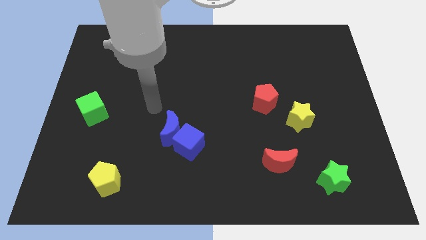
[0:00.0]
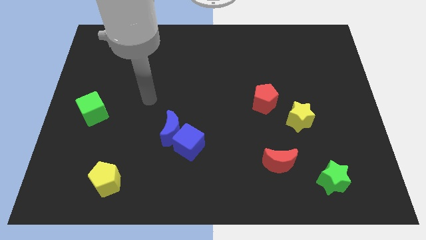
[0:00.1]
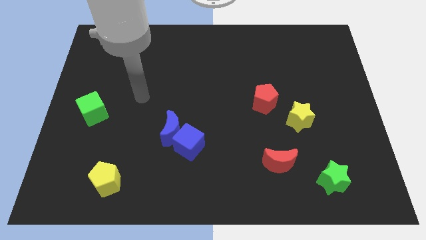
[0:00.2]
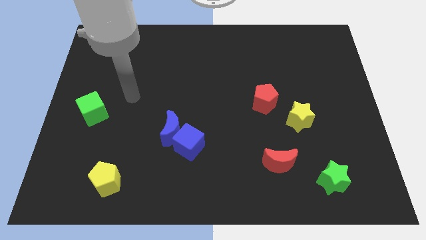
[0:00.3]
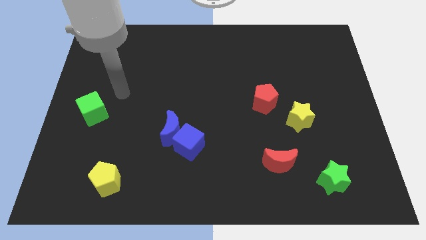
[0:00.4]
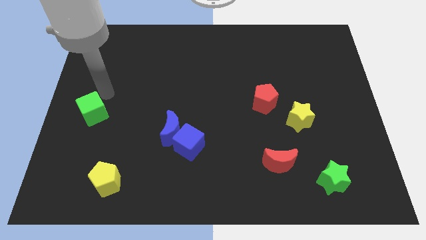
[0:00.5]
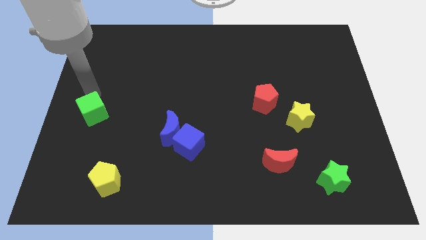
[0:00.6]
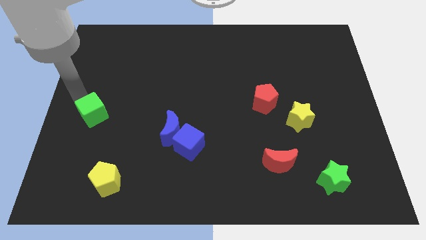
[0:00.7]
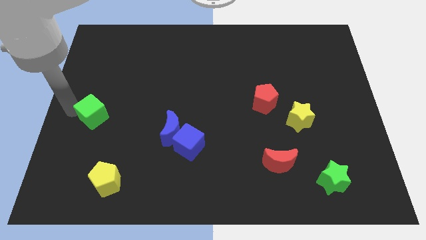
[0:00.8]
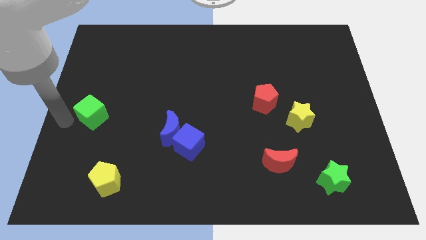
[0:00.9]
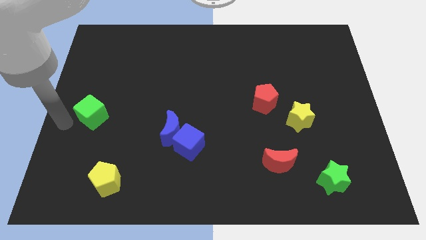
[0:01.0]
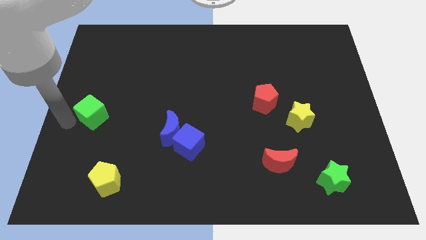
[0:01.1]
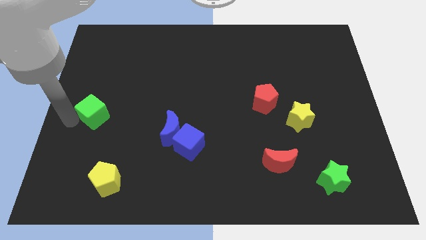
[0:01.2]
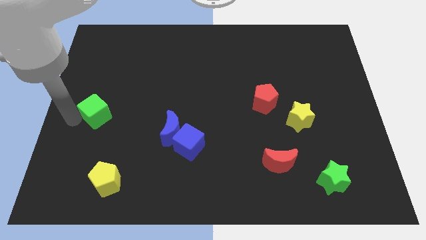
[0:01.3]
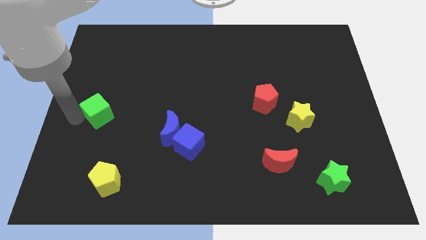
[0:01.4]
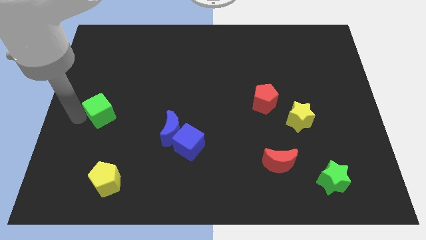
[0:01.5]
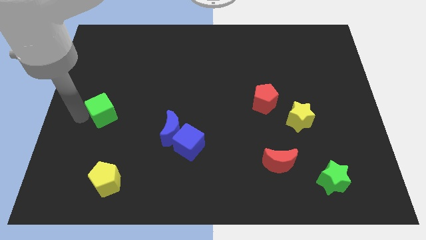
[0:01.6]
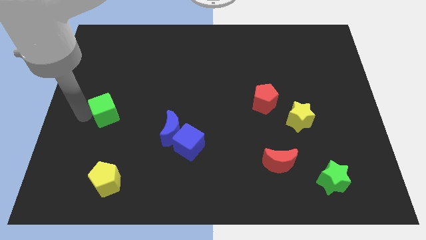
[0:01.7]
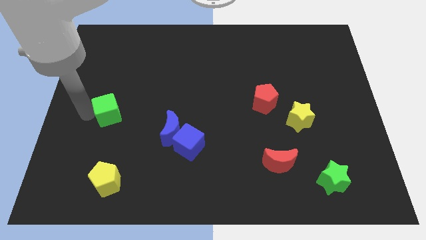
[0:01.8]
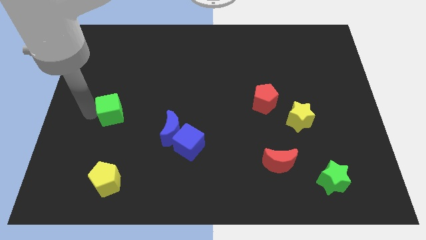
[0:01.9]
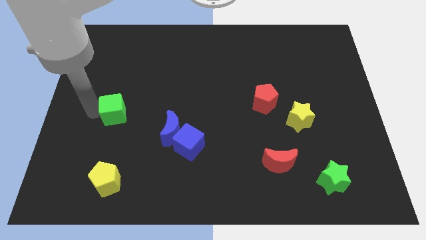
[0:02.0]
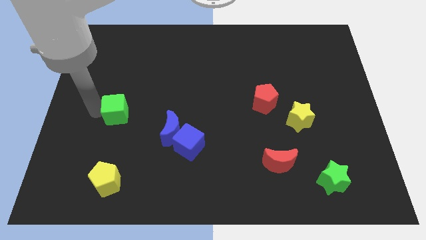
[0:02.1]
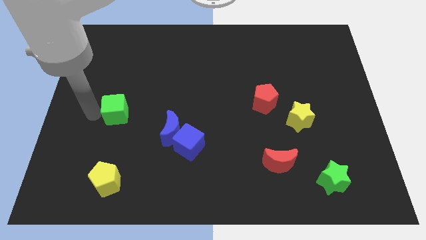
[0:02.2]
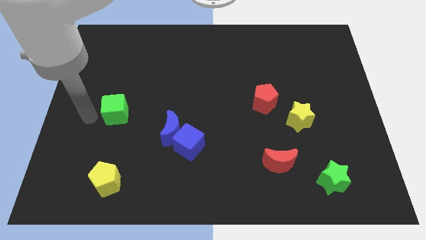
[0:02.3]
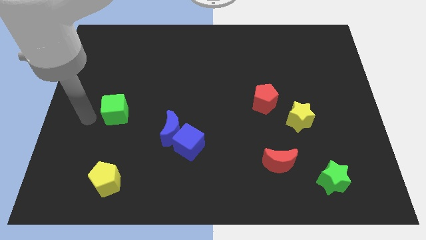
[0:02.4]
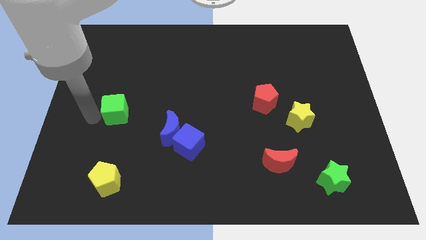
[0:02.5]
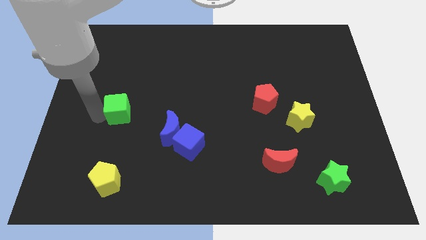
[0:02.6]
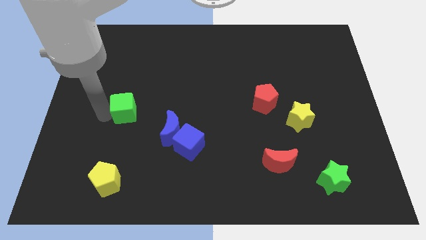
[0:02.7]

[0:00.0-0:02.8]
move the green cube a little to the right

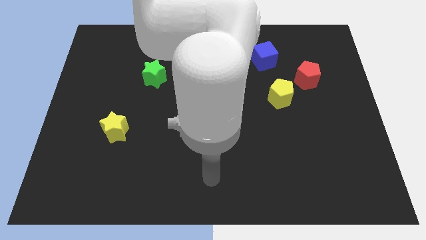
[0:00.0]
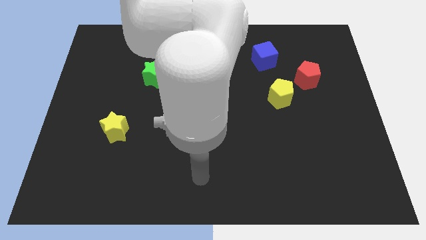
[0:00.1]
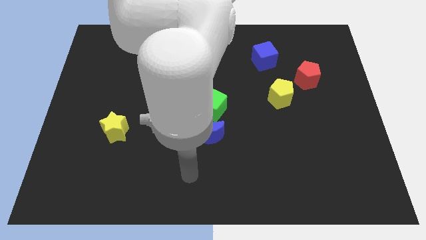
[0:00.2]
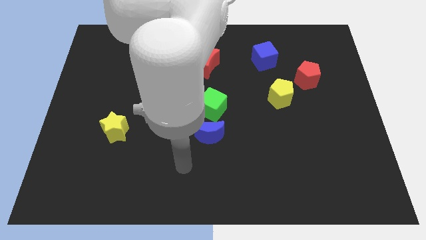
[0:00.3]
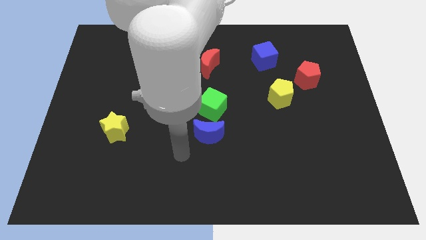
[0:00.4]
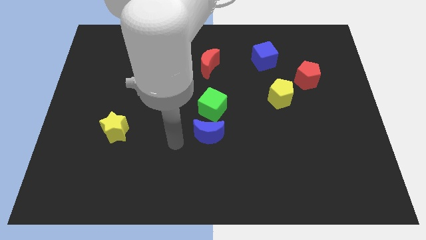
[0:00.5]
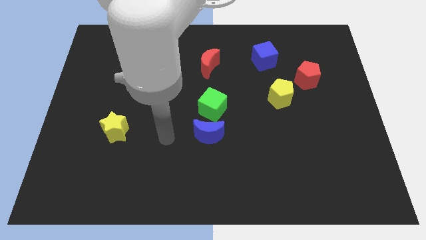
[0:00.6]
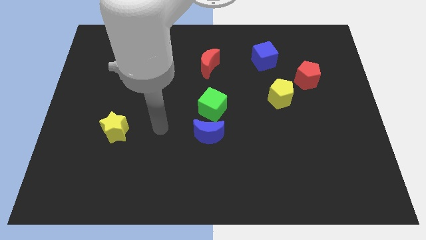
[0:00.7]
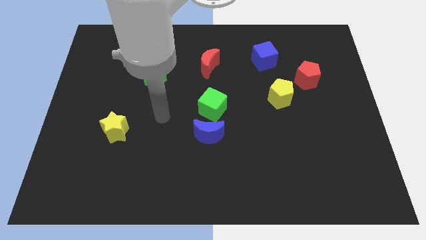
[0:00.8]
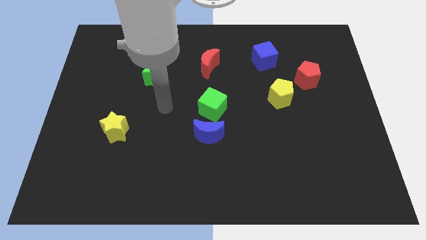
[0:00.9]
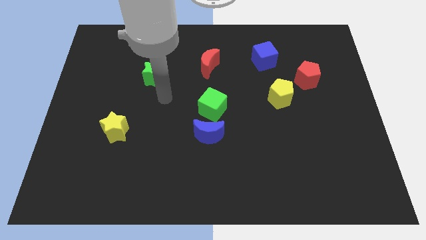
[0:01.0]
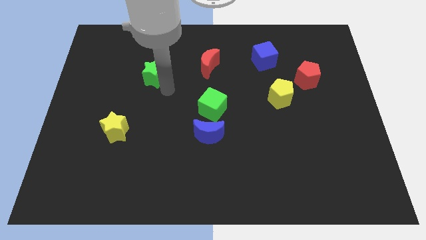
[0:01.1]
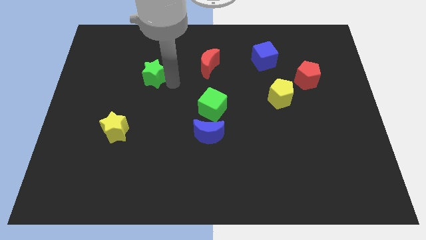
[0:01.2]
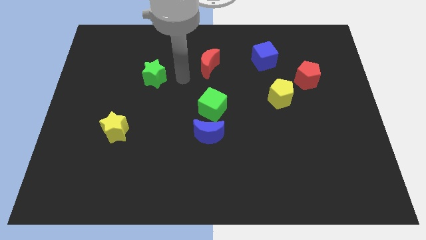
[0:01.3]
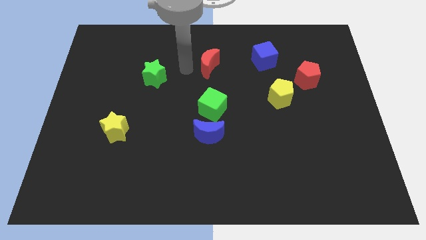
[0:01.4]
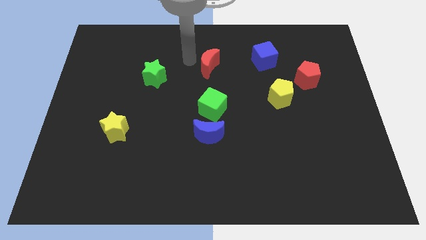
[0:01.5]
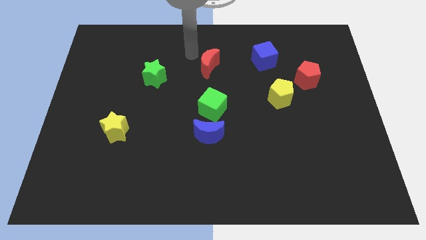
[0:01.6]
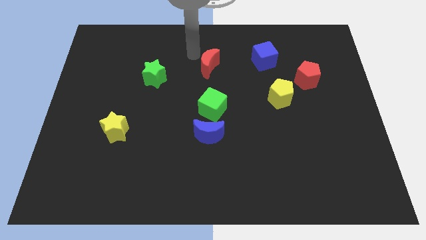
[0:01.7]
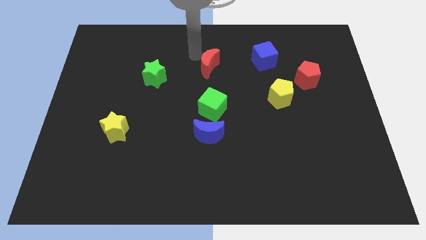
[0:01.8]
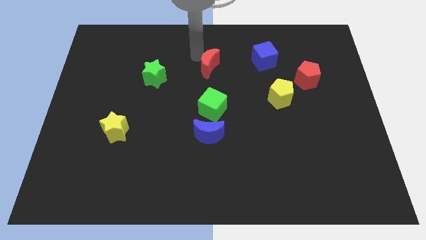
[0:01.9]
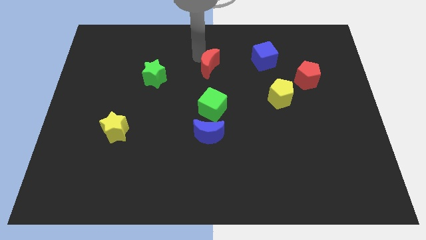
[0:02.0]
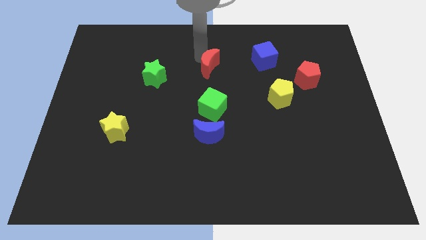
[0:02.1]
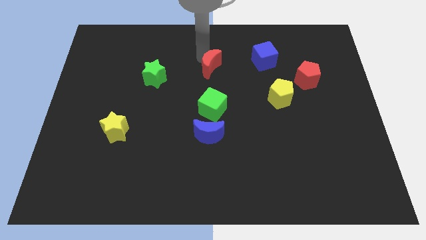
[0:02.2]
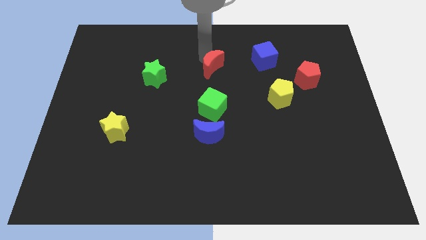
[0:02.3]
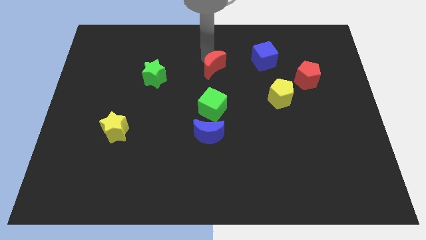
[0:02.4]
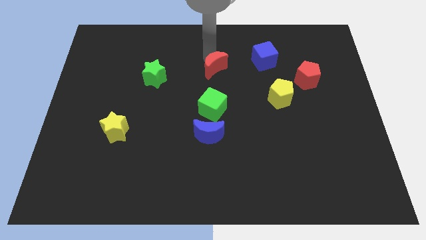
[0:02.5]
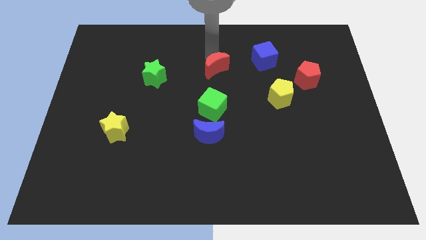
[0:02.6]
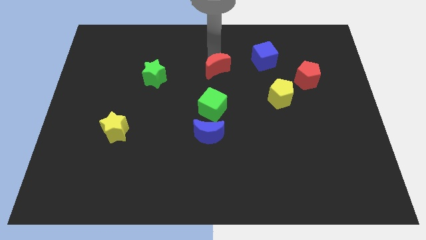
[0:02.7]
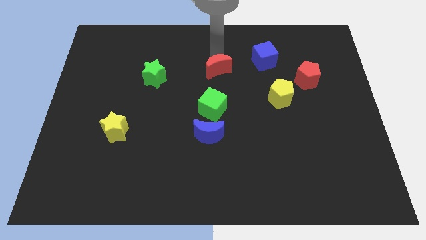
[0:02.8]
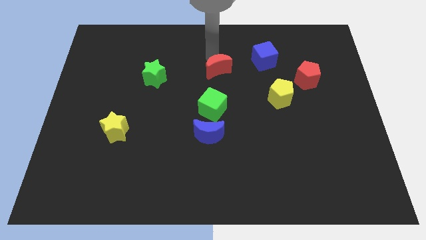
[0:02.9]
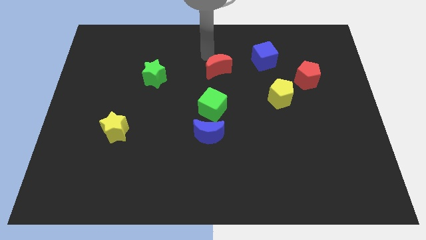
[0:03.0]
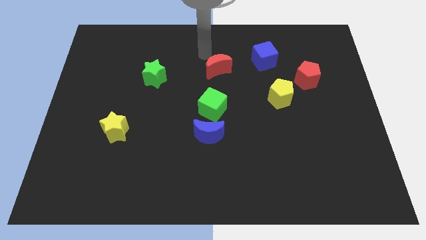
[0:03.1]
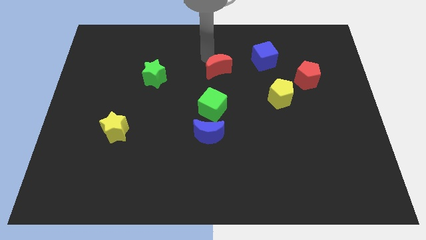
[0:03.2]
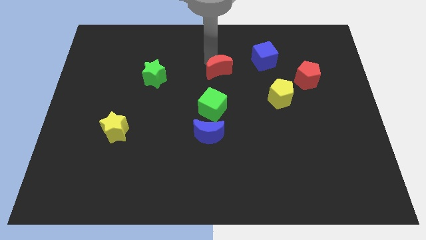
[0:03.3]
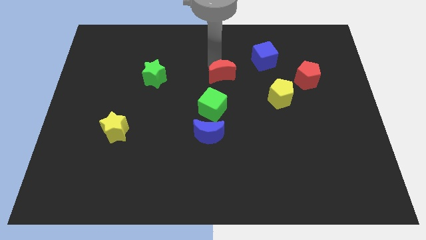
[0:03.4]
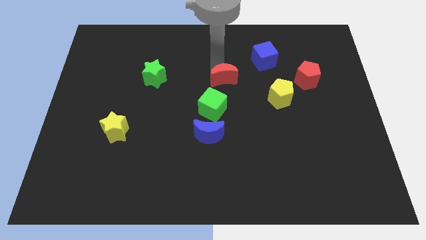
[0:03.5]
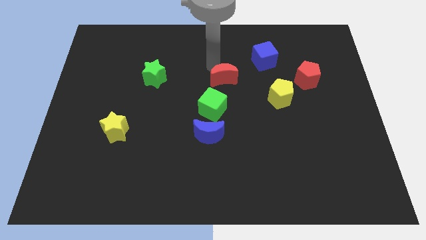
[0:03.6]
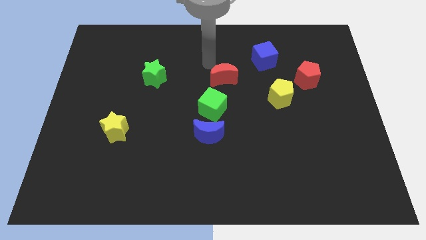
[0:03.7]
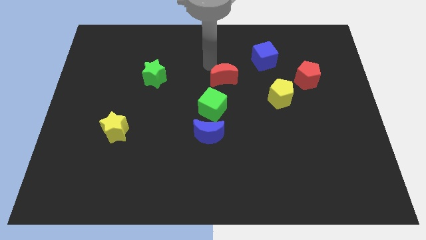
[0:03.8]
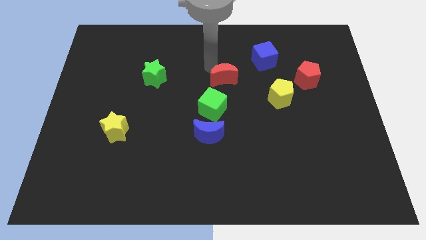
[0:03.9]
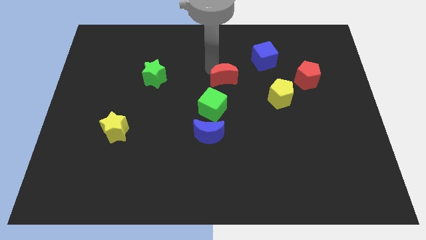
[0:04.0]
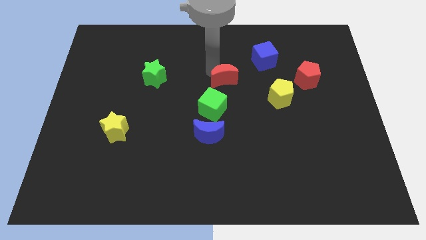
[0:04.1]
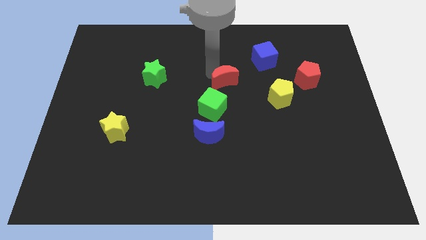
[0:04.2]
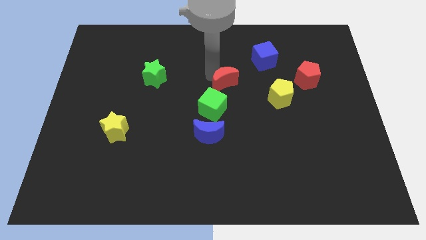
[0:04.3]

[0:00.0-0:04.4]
push the red moon diagonally downwards and right a little bit

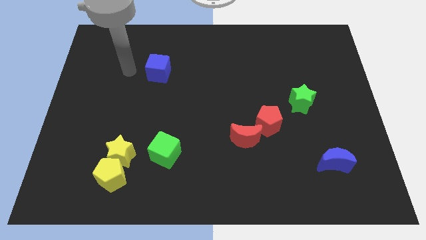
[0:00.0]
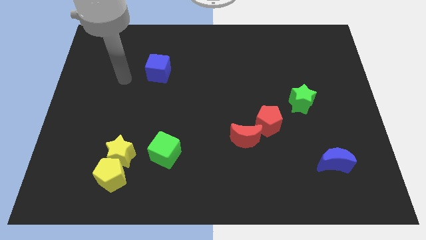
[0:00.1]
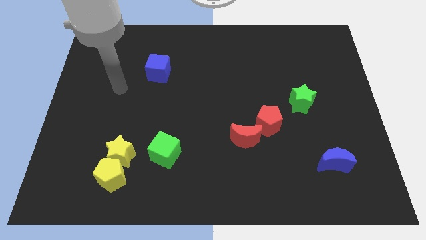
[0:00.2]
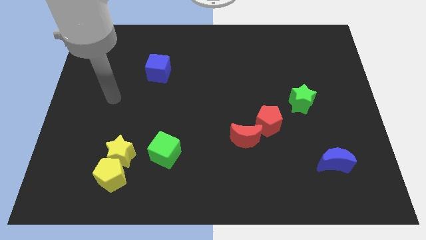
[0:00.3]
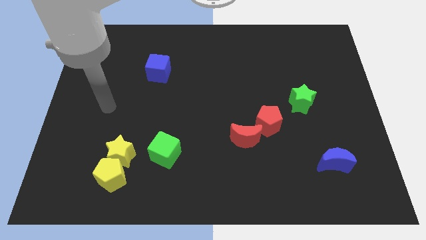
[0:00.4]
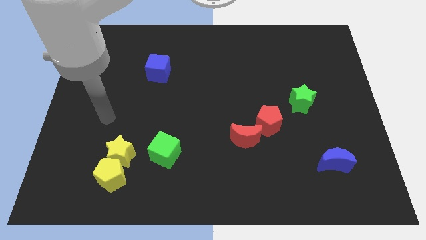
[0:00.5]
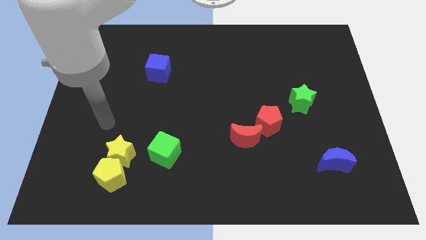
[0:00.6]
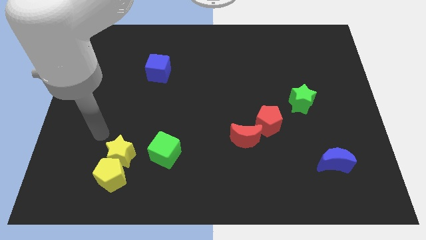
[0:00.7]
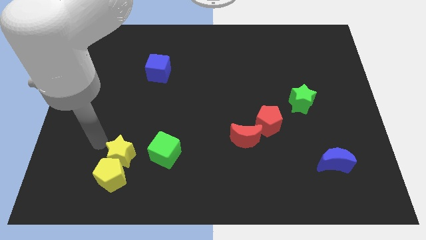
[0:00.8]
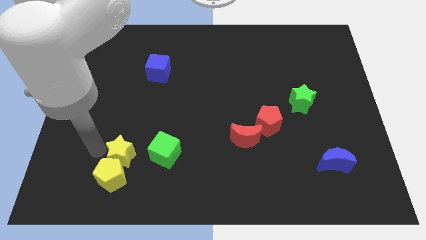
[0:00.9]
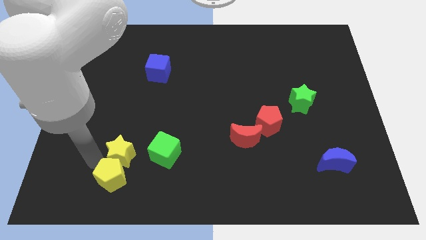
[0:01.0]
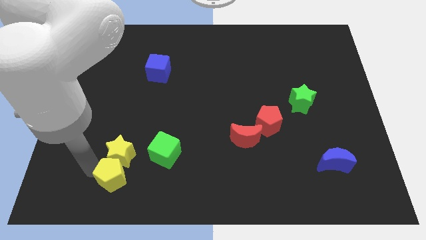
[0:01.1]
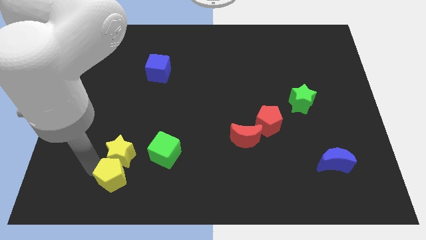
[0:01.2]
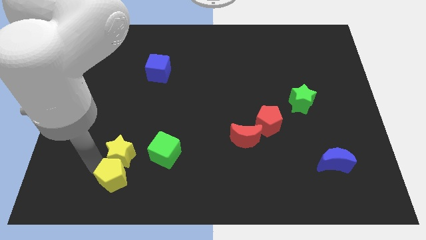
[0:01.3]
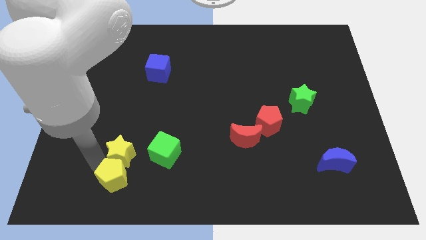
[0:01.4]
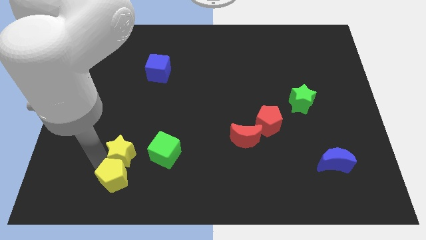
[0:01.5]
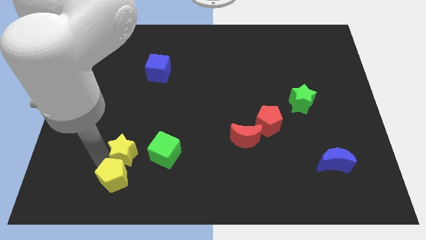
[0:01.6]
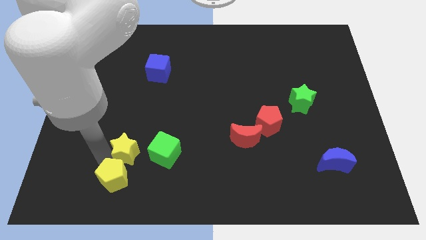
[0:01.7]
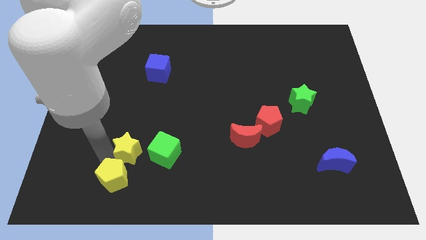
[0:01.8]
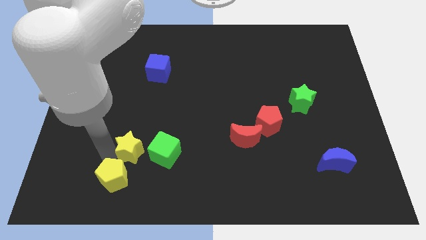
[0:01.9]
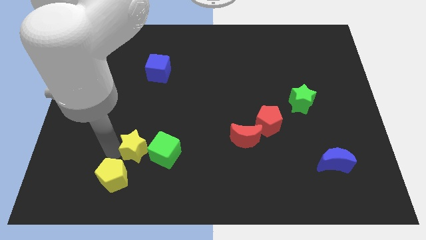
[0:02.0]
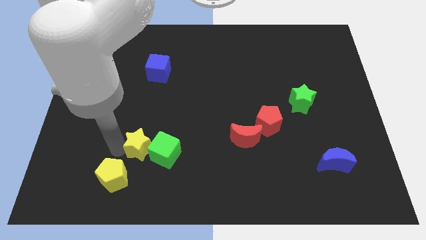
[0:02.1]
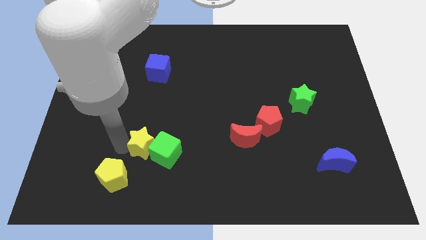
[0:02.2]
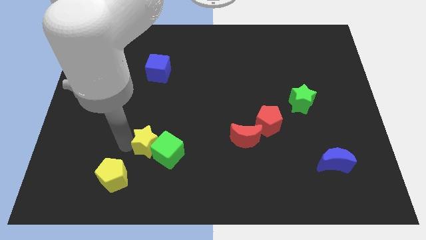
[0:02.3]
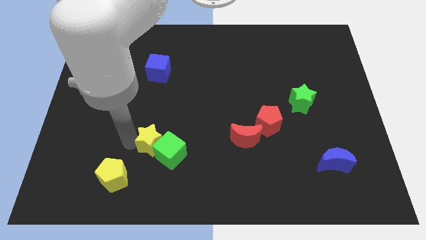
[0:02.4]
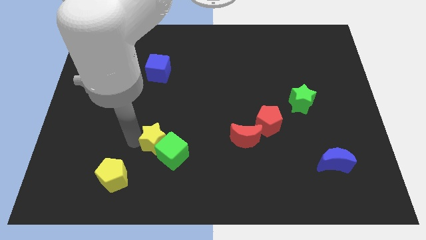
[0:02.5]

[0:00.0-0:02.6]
slightly move the yellow star up and then to the right
